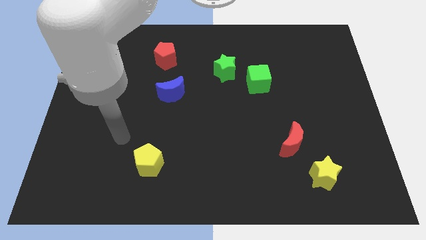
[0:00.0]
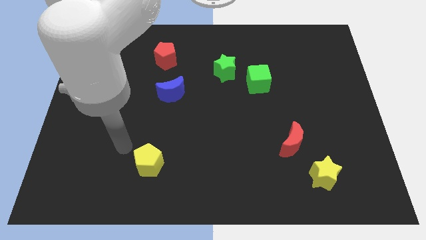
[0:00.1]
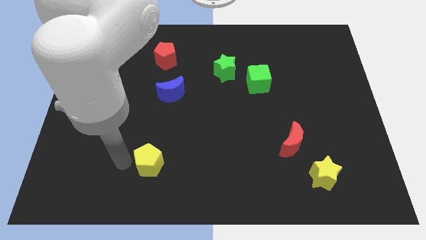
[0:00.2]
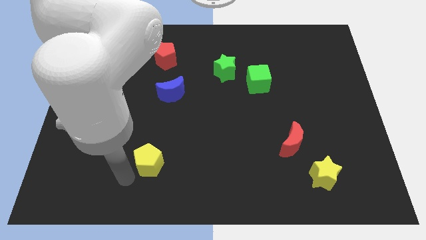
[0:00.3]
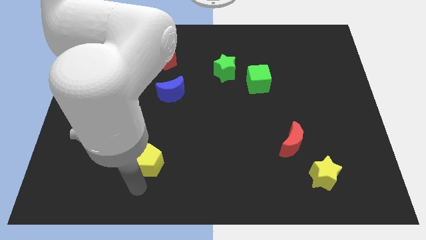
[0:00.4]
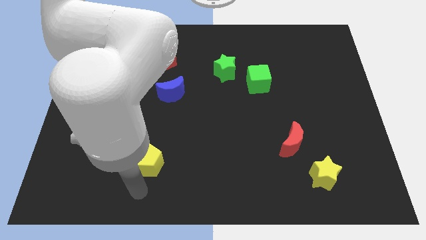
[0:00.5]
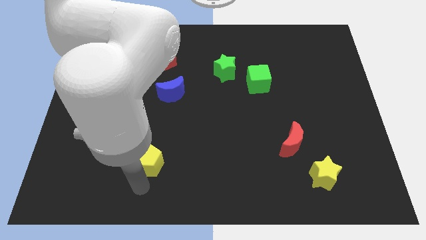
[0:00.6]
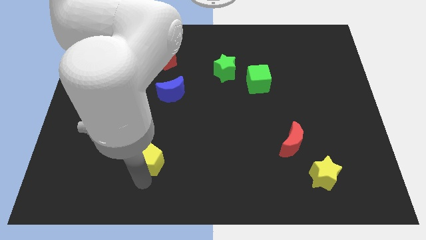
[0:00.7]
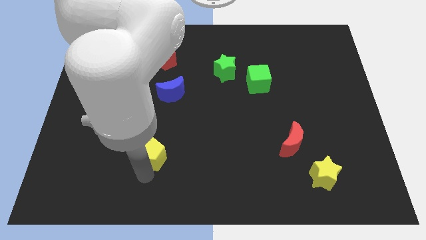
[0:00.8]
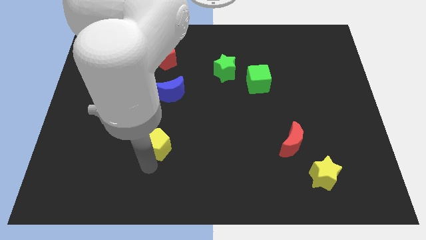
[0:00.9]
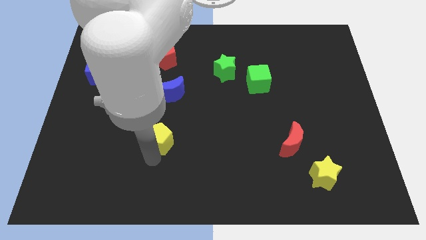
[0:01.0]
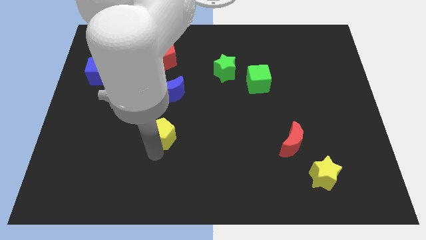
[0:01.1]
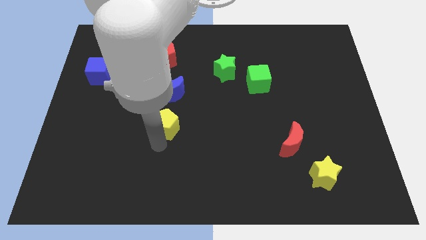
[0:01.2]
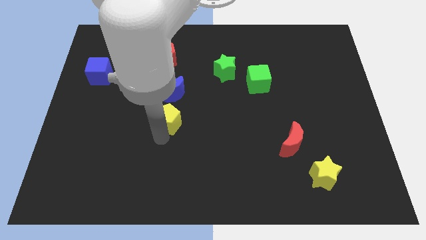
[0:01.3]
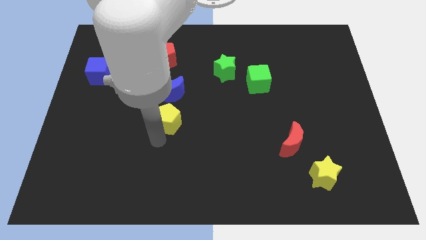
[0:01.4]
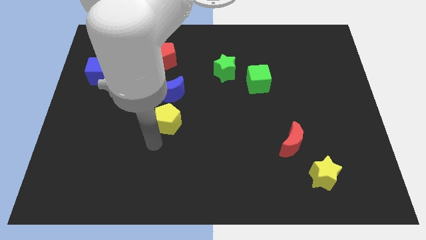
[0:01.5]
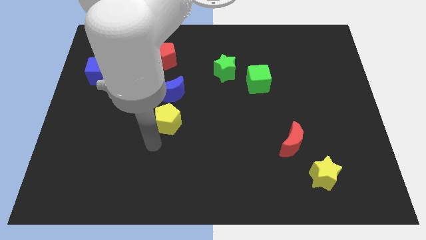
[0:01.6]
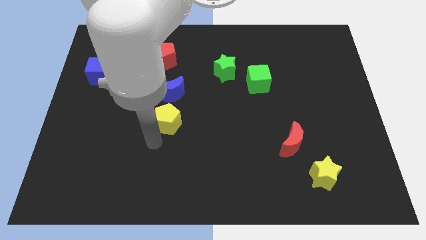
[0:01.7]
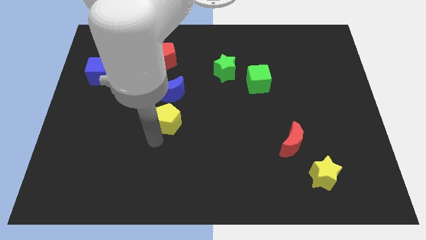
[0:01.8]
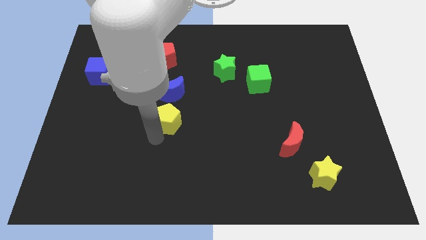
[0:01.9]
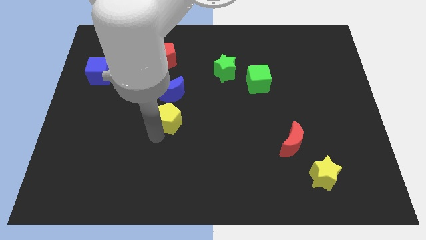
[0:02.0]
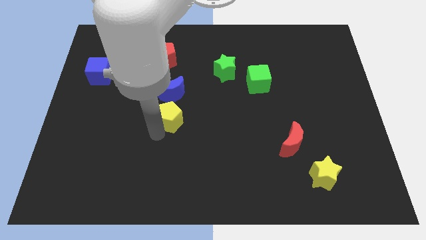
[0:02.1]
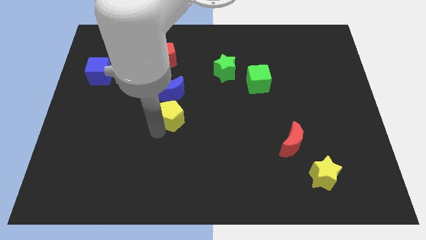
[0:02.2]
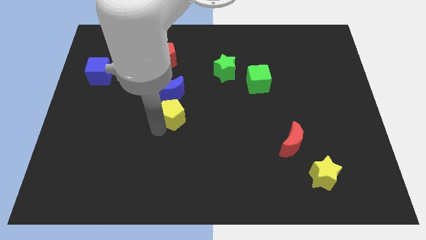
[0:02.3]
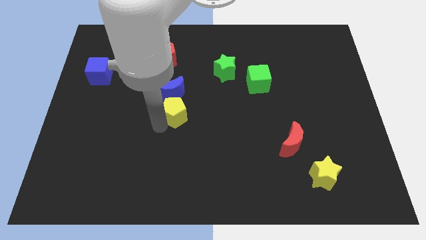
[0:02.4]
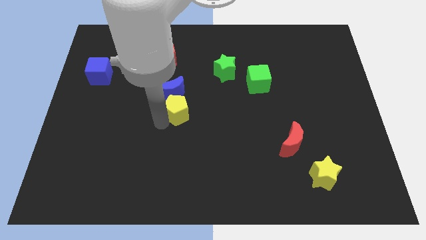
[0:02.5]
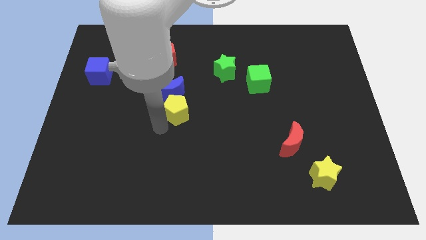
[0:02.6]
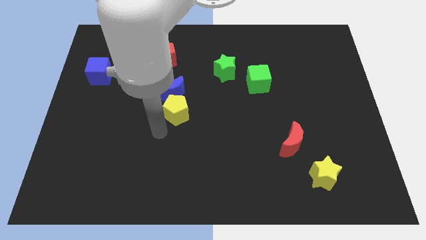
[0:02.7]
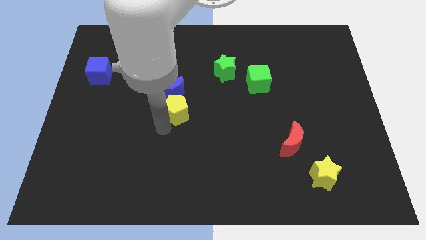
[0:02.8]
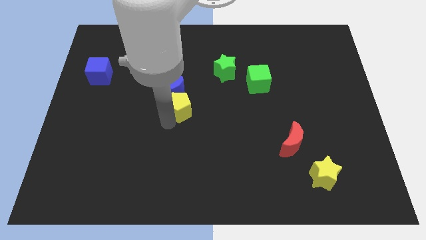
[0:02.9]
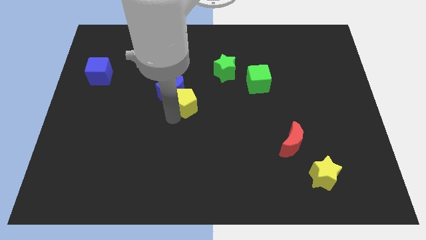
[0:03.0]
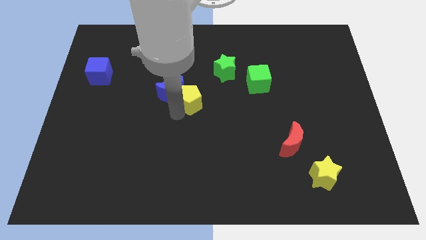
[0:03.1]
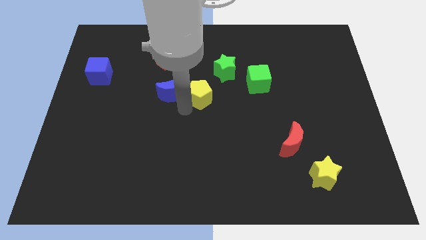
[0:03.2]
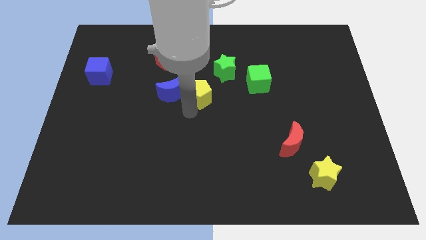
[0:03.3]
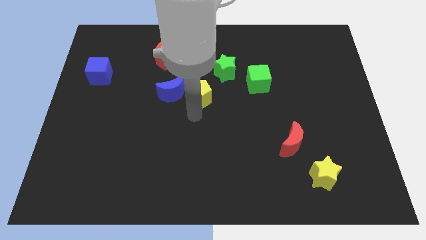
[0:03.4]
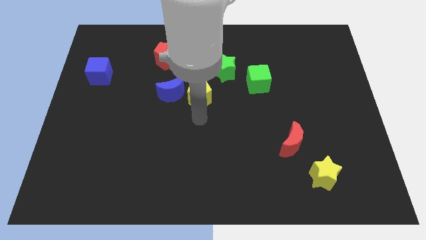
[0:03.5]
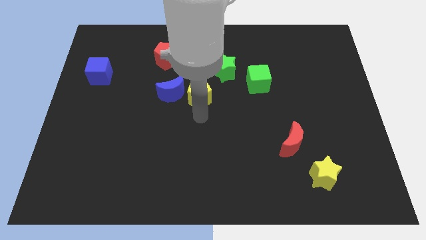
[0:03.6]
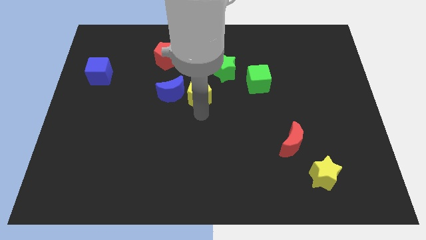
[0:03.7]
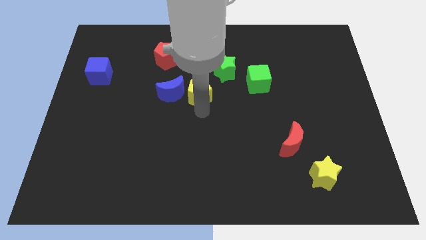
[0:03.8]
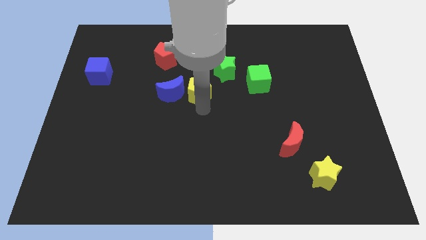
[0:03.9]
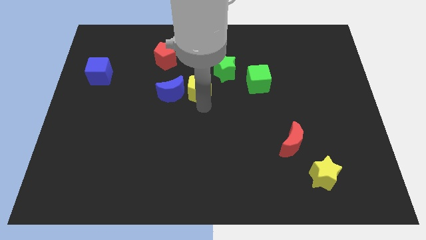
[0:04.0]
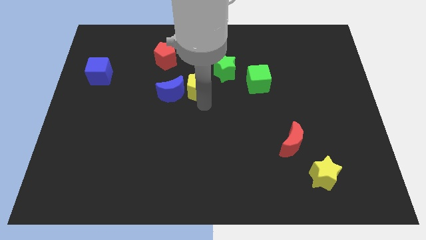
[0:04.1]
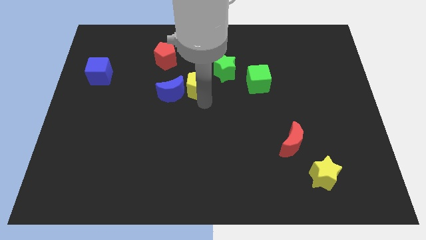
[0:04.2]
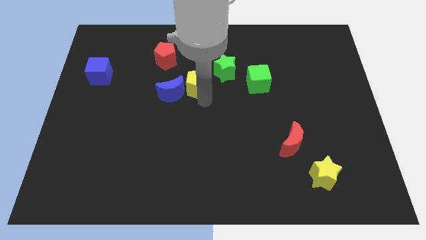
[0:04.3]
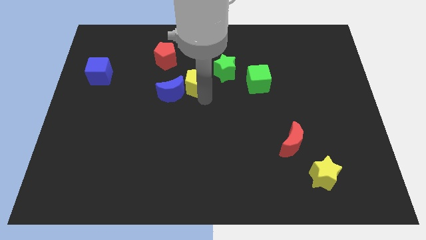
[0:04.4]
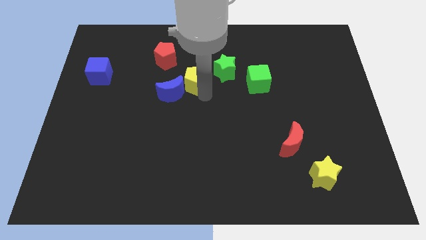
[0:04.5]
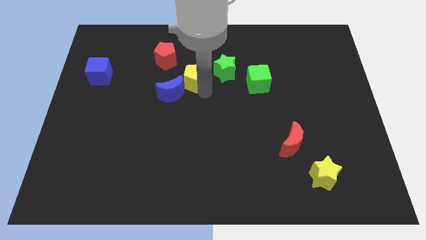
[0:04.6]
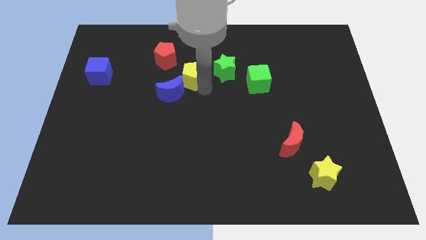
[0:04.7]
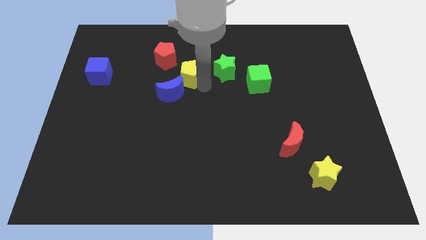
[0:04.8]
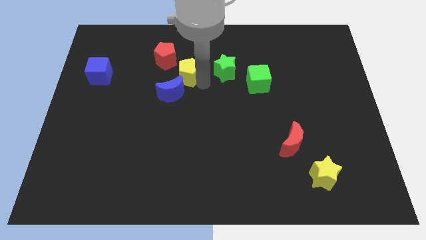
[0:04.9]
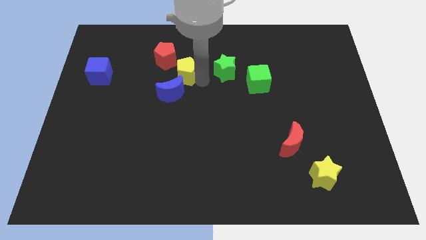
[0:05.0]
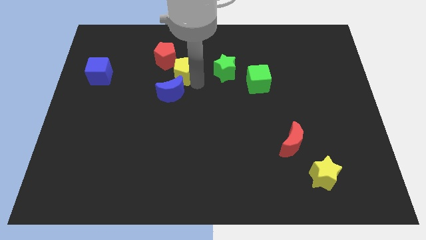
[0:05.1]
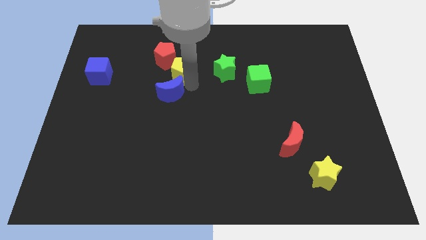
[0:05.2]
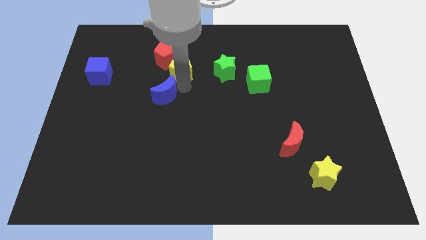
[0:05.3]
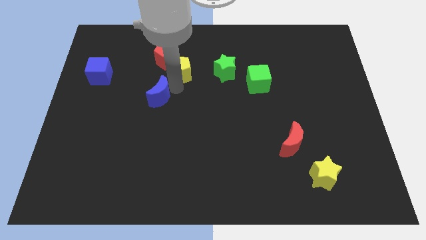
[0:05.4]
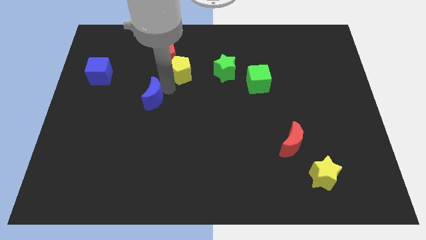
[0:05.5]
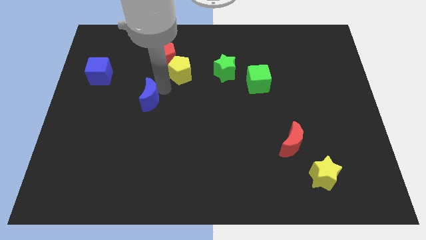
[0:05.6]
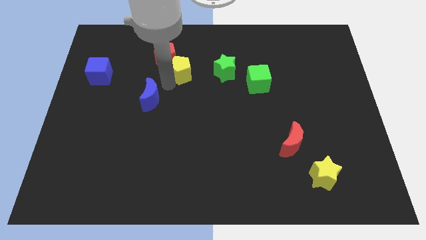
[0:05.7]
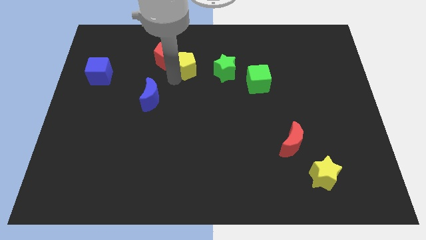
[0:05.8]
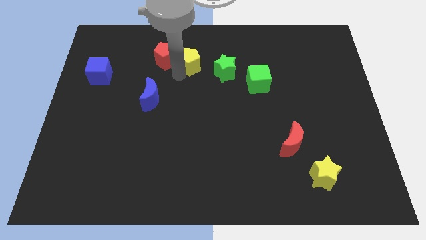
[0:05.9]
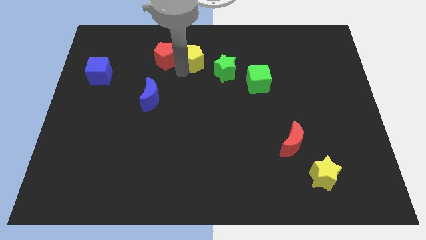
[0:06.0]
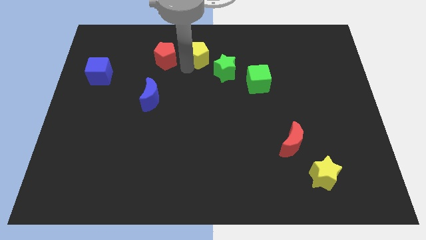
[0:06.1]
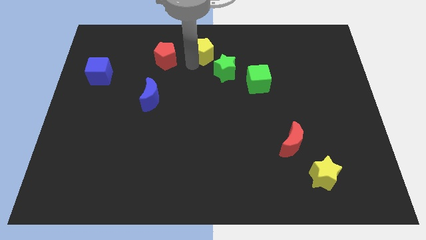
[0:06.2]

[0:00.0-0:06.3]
push the yellow pentagon to the top

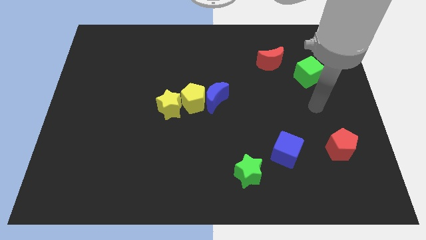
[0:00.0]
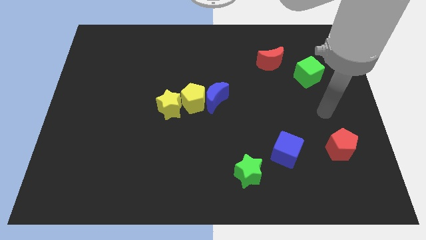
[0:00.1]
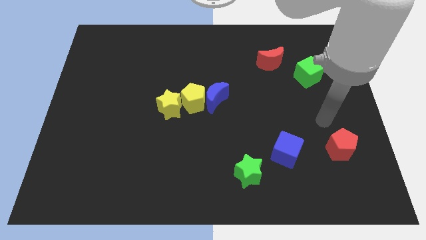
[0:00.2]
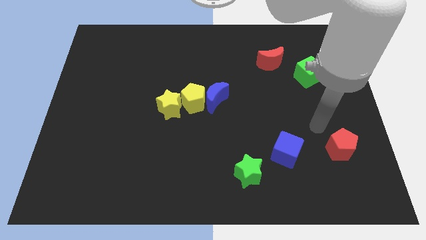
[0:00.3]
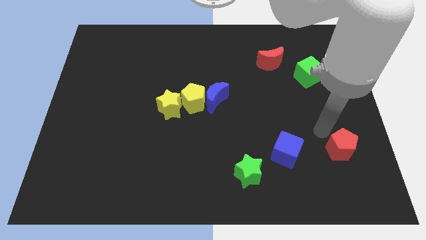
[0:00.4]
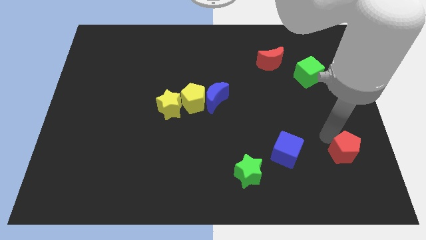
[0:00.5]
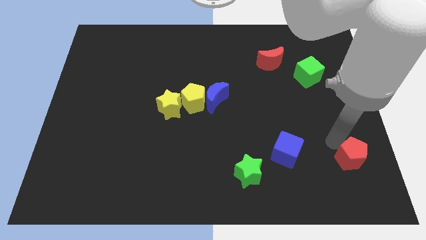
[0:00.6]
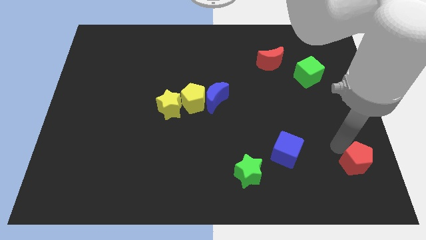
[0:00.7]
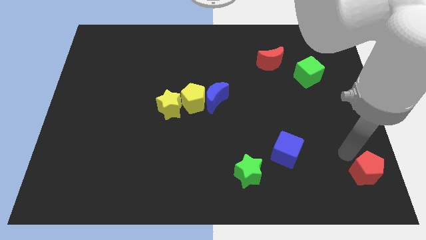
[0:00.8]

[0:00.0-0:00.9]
slide the red pentagon to the bottom right corner

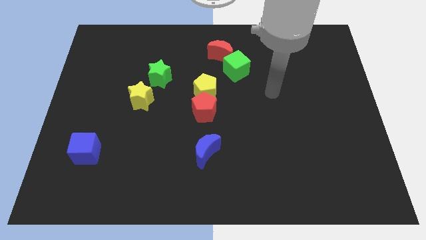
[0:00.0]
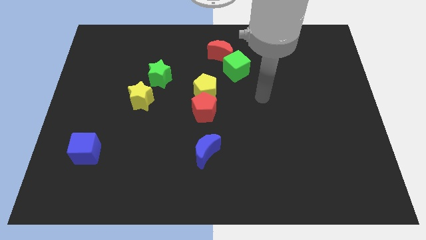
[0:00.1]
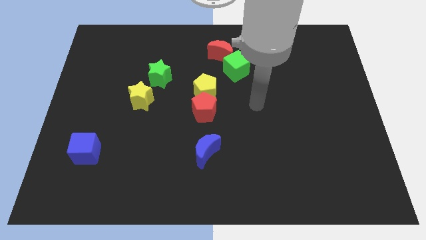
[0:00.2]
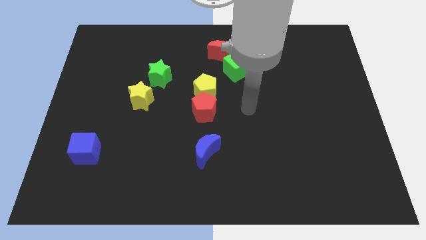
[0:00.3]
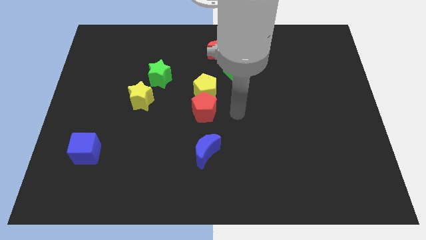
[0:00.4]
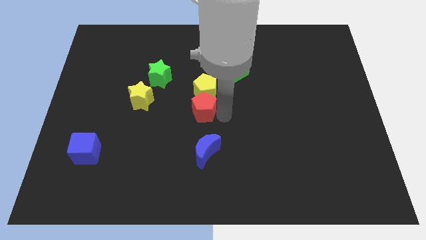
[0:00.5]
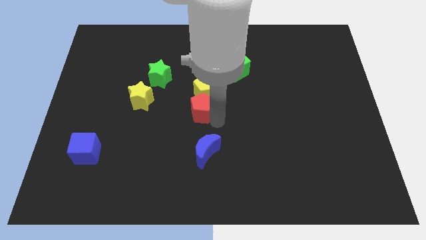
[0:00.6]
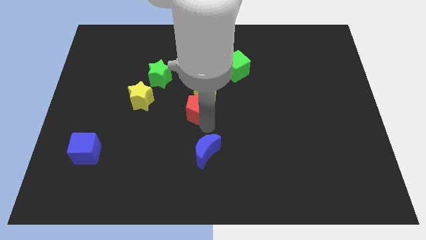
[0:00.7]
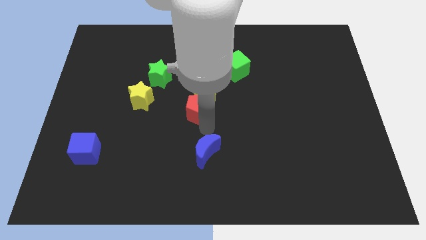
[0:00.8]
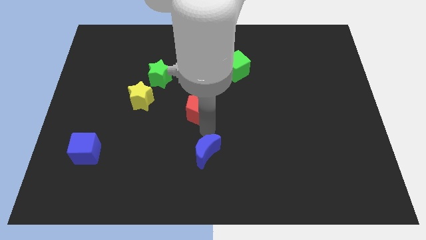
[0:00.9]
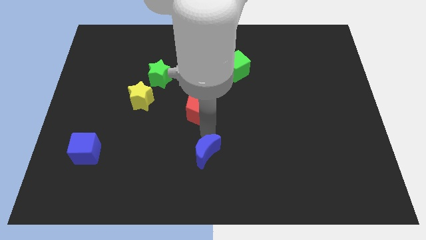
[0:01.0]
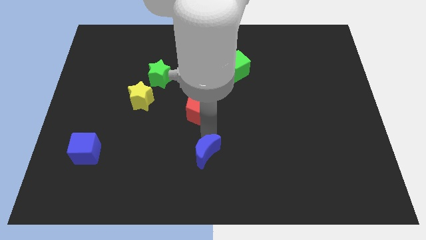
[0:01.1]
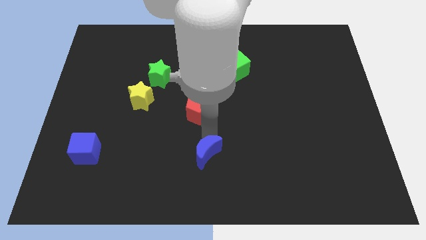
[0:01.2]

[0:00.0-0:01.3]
push the blue moon to the bottom
